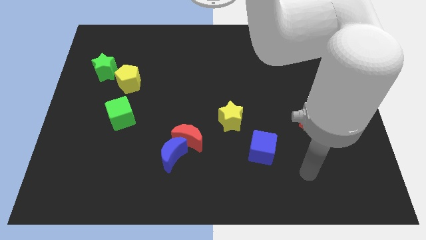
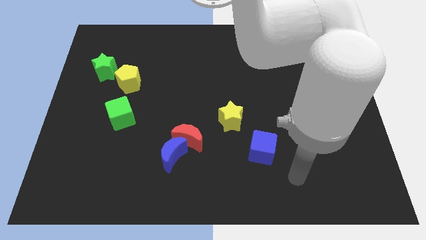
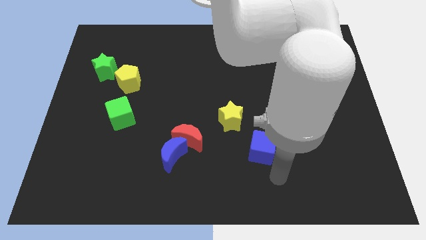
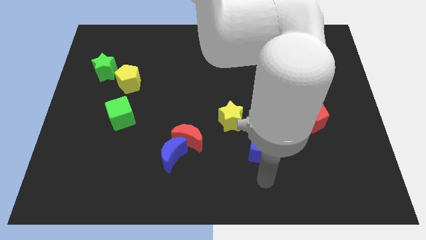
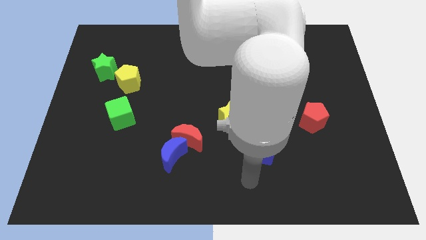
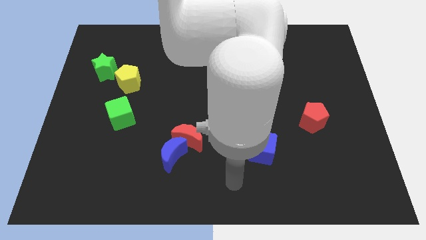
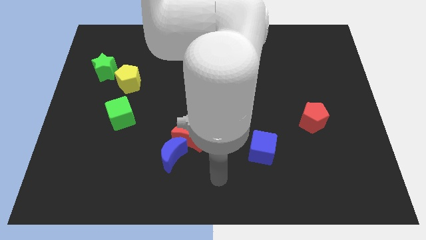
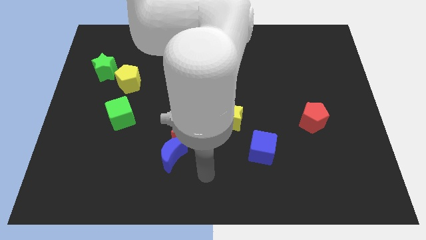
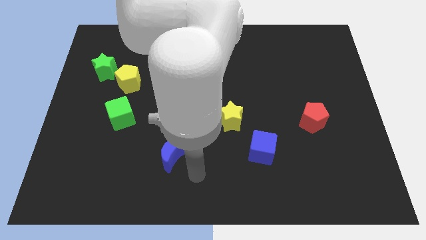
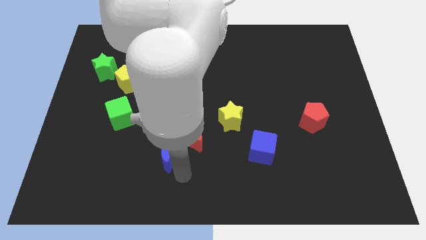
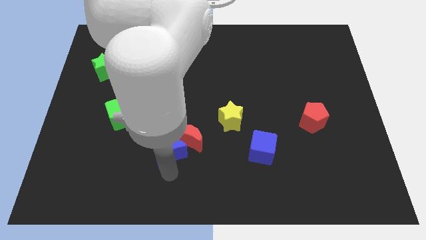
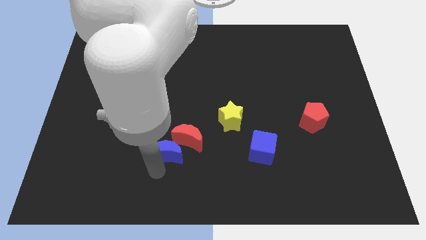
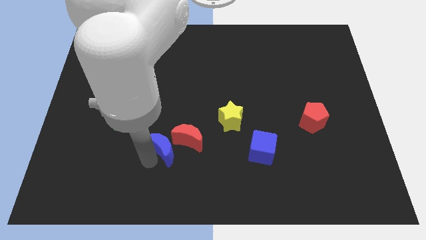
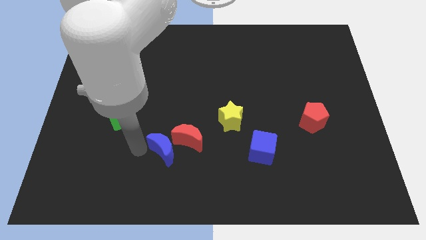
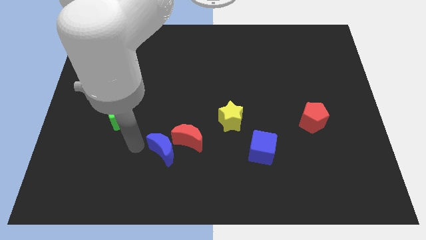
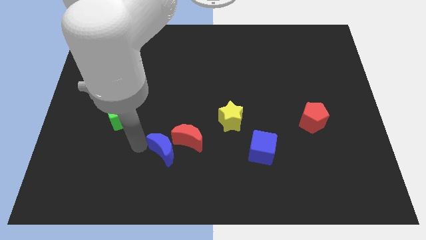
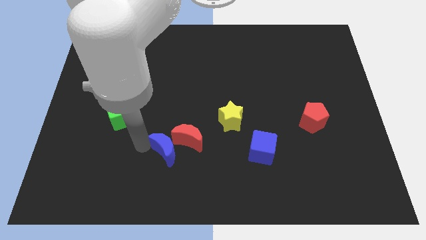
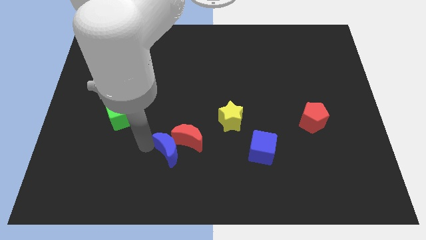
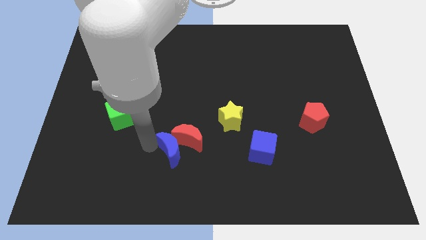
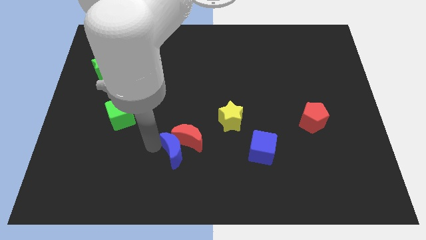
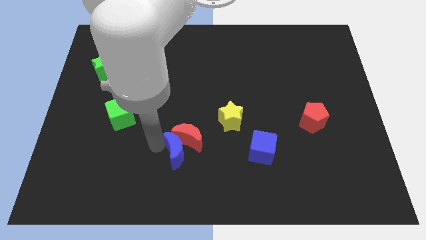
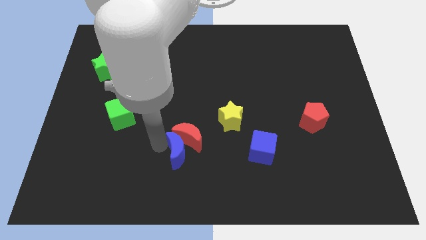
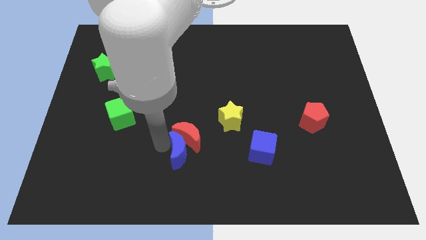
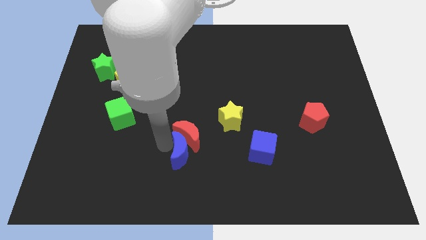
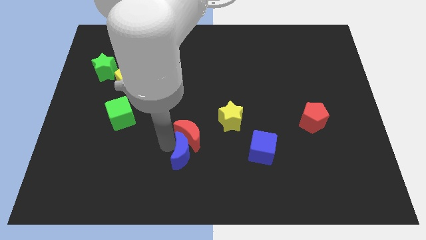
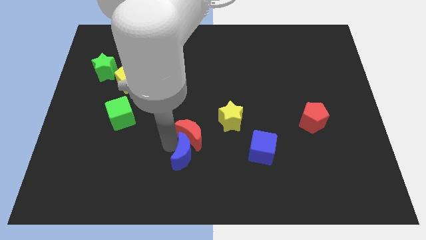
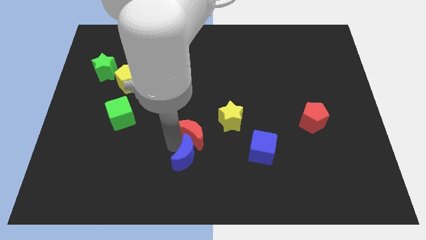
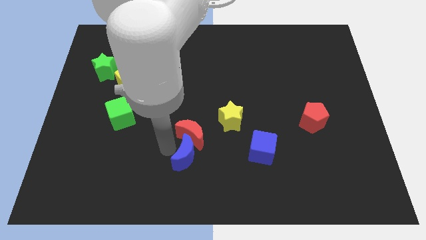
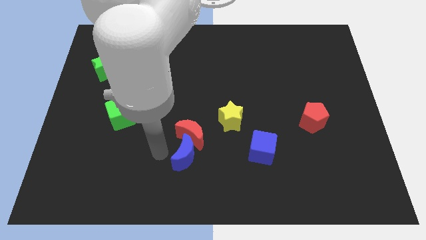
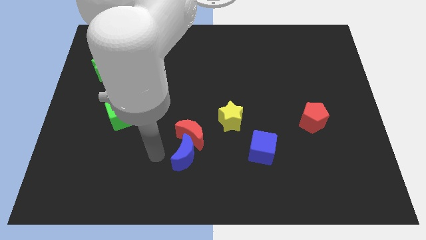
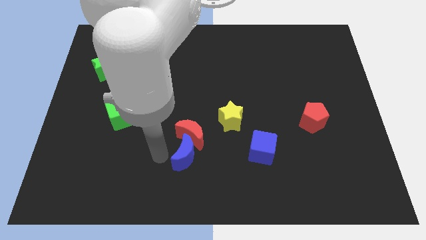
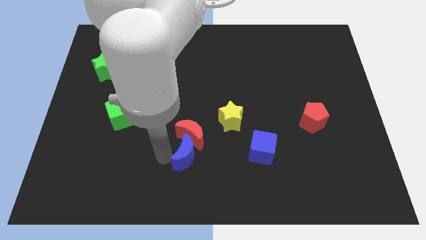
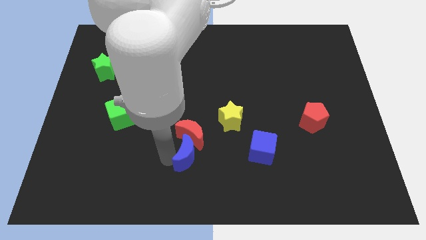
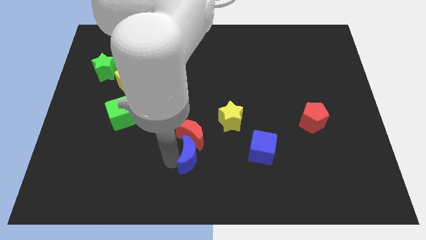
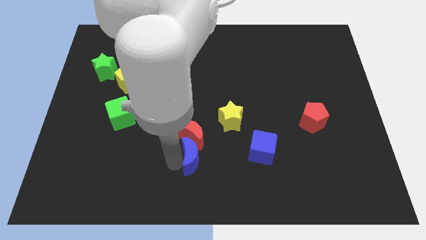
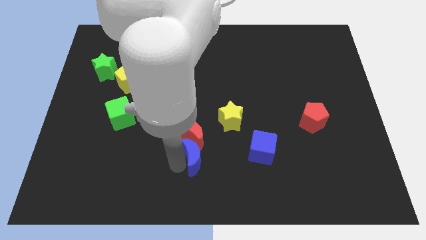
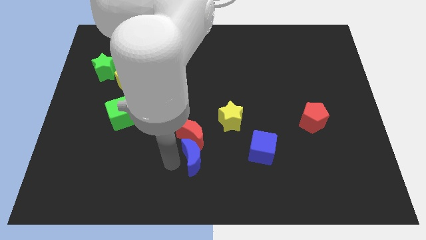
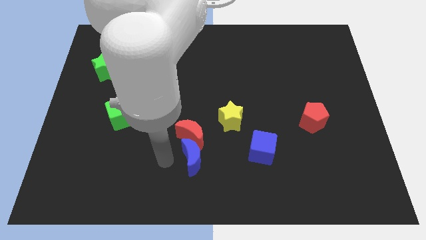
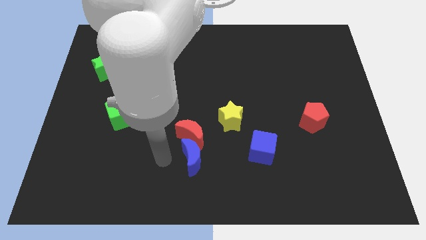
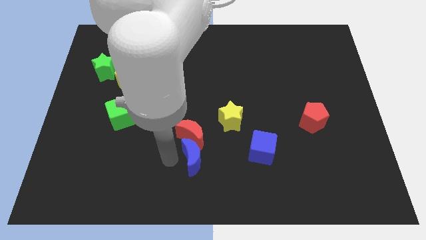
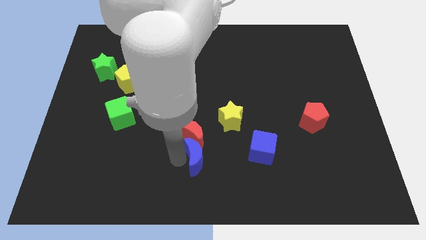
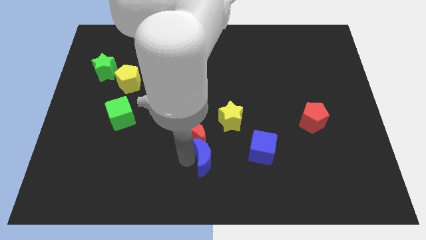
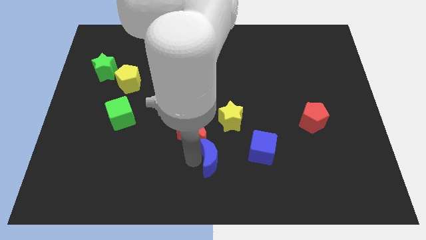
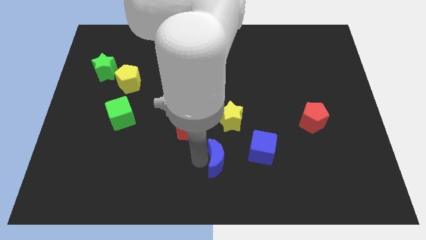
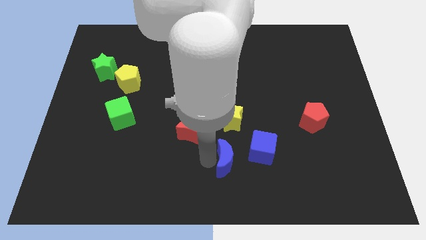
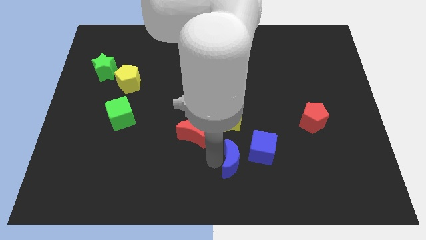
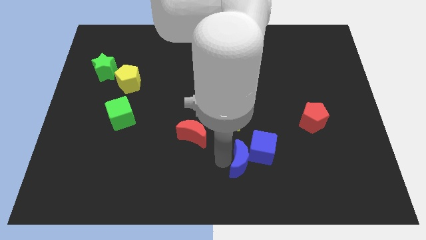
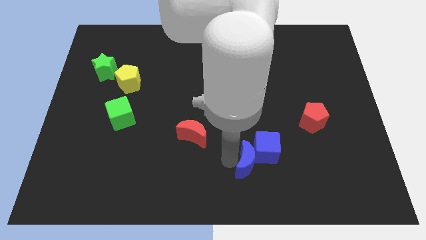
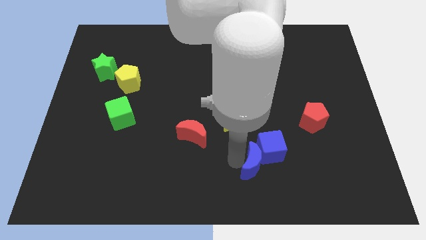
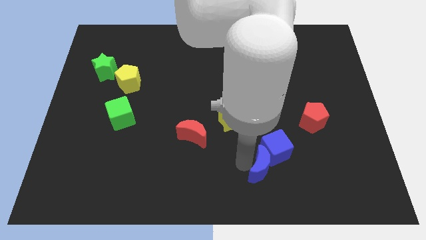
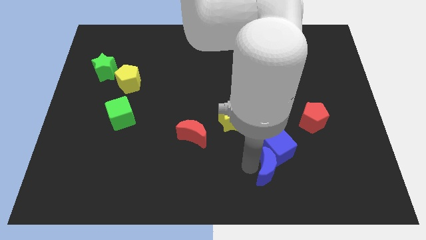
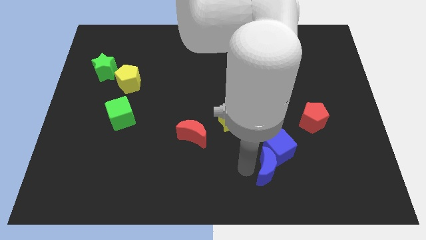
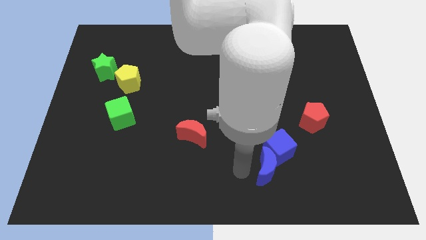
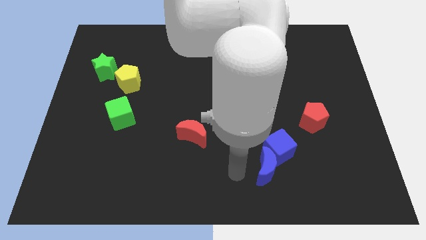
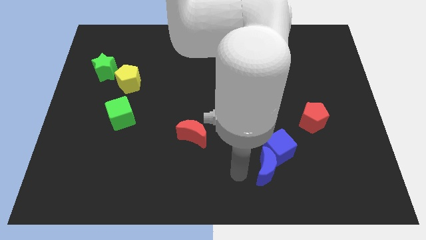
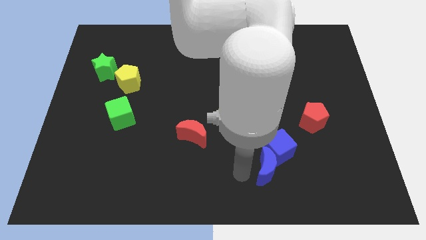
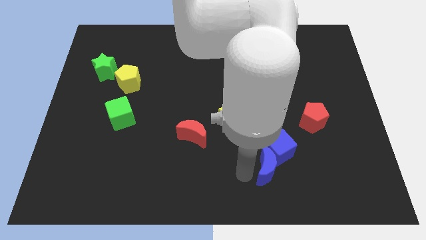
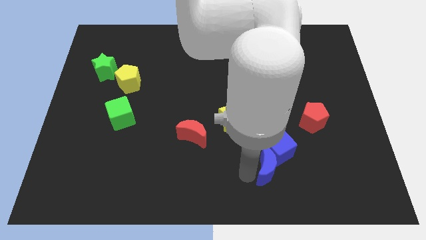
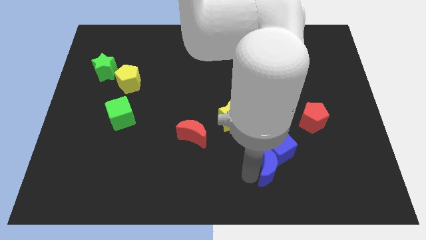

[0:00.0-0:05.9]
move the blue moon right

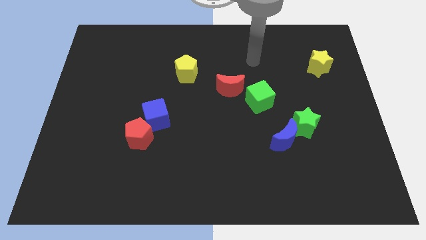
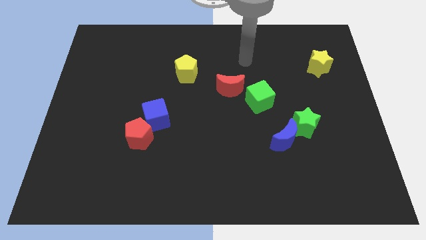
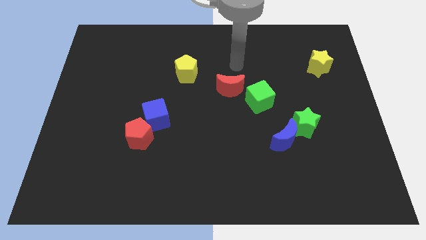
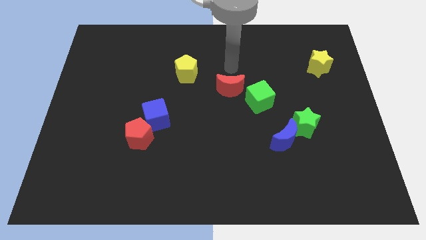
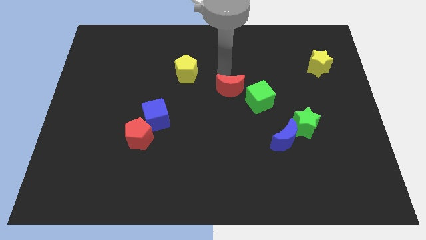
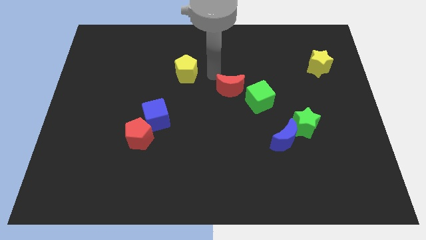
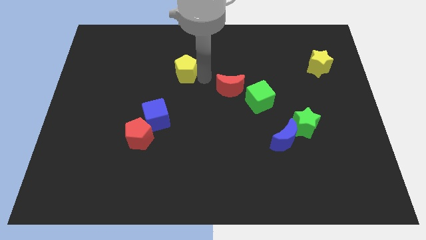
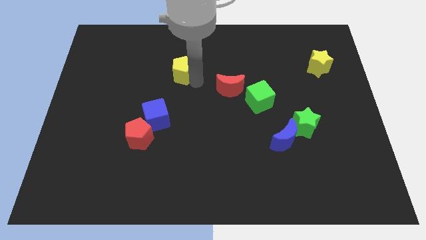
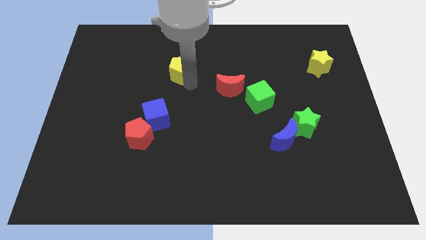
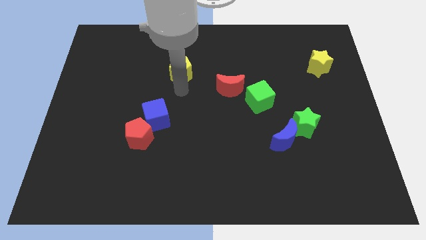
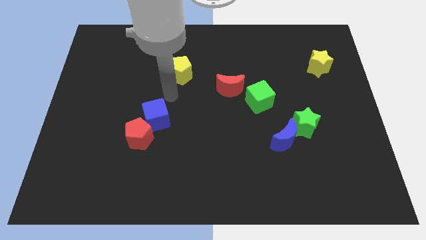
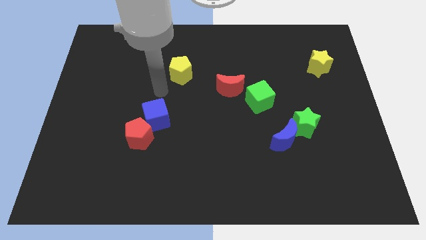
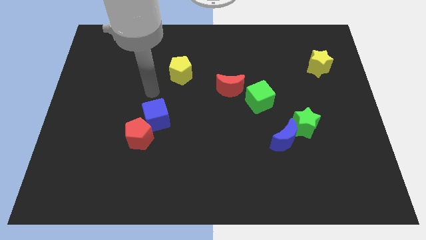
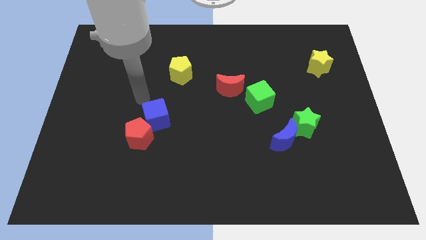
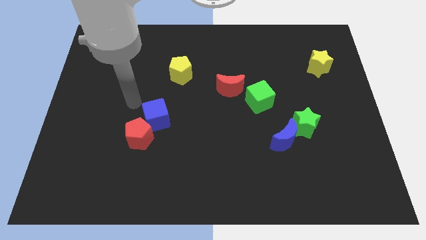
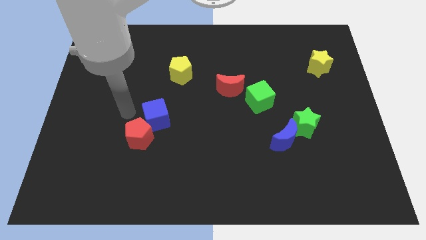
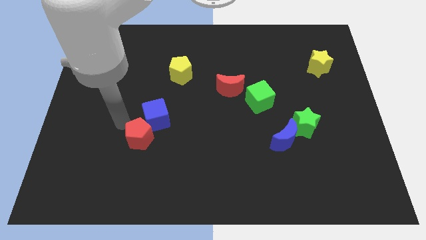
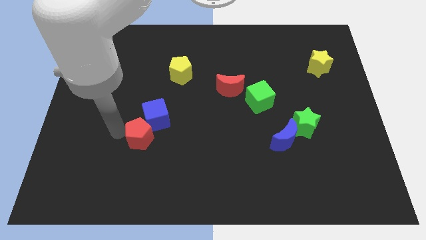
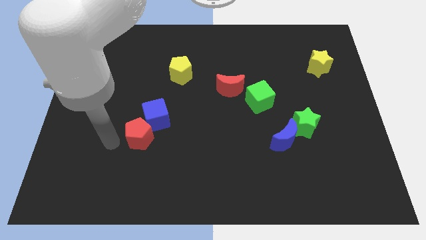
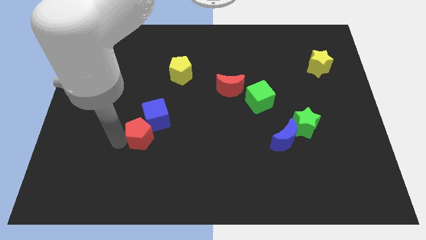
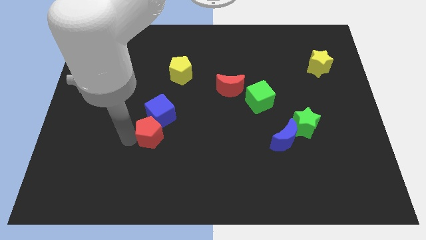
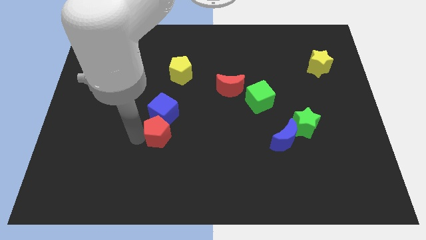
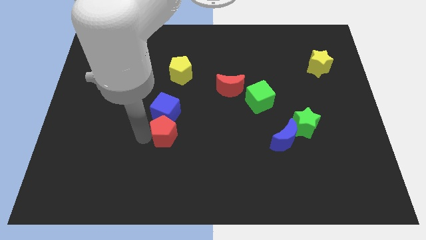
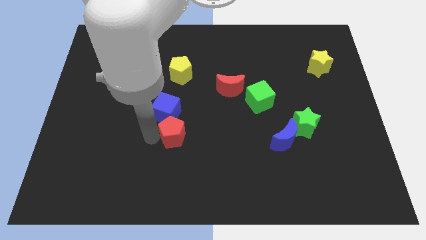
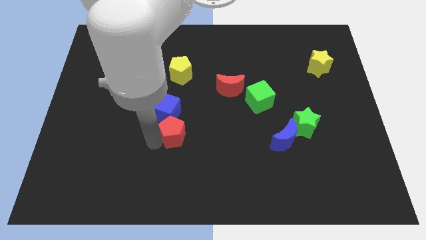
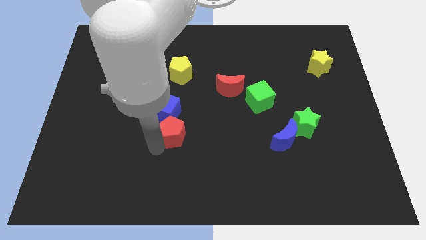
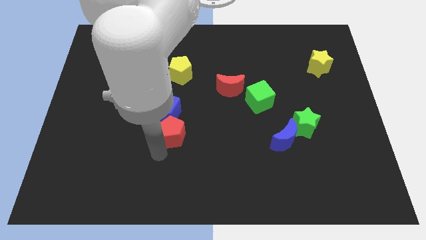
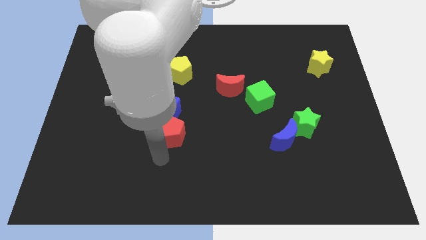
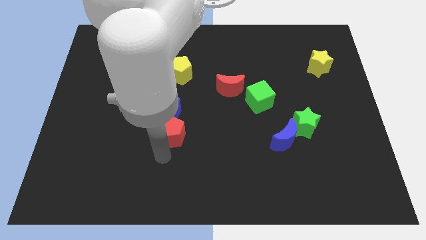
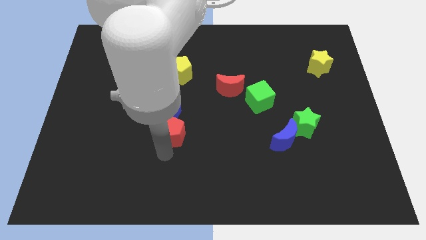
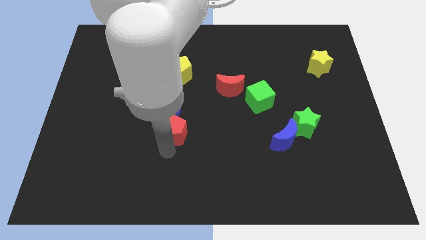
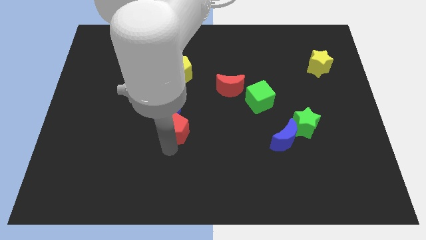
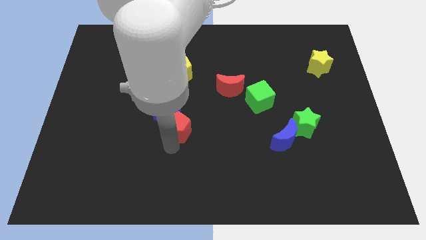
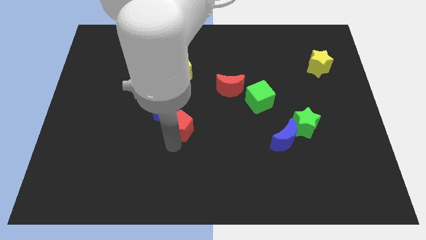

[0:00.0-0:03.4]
slide the red pentagon a little upwards and right
